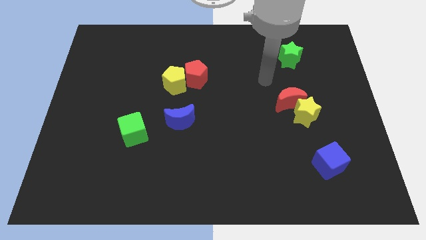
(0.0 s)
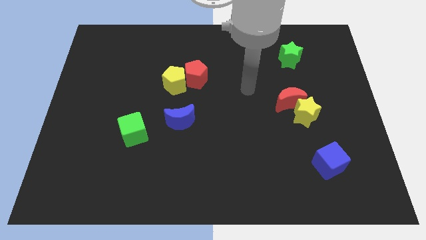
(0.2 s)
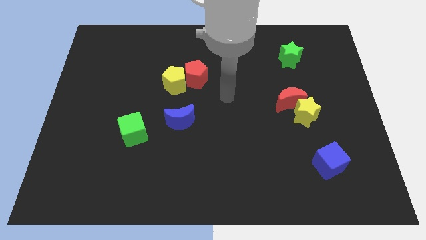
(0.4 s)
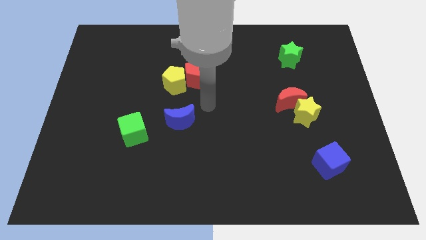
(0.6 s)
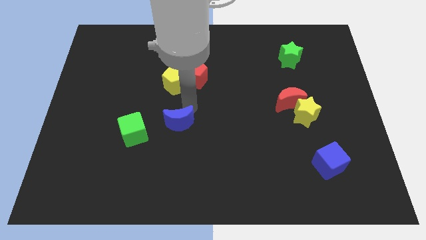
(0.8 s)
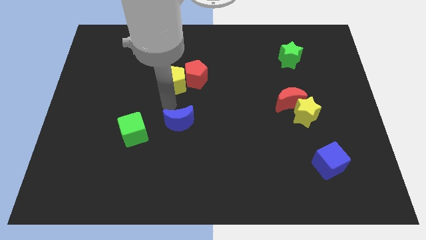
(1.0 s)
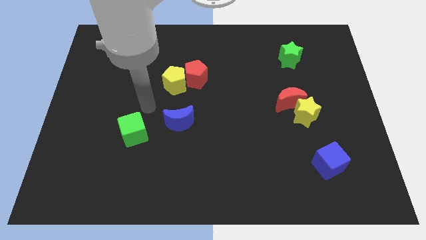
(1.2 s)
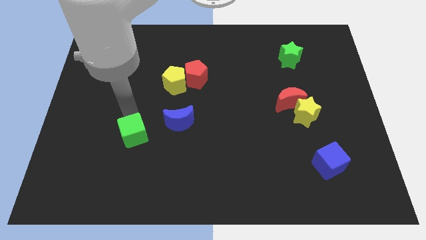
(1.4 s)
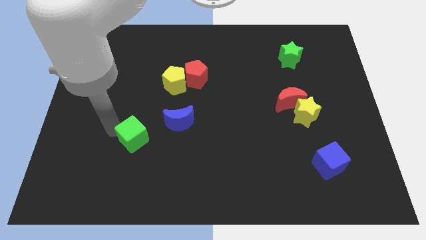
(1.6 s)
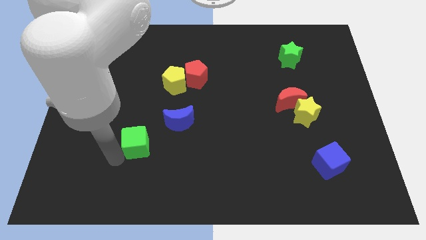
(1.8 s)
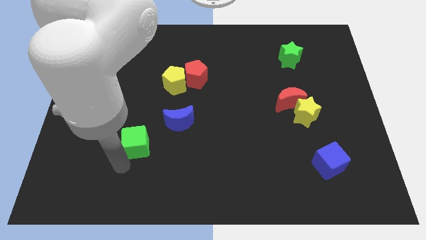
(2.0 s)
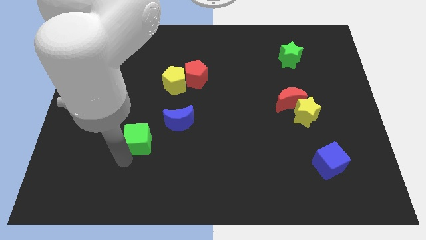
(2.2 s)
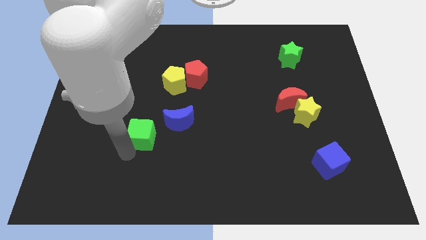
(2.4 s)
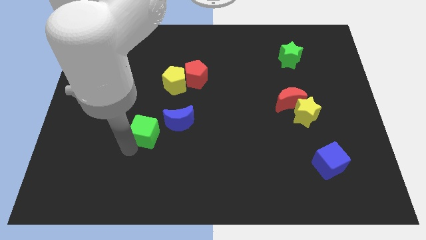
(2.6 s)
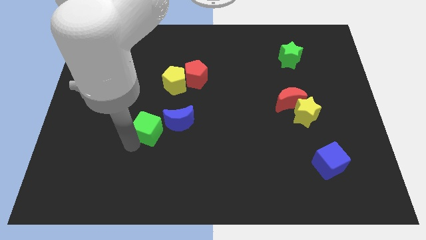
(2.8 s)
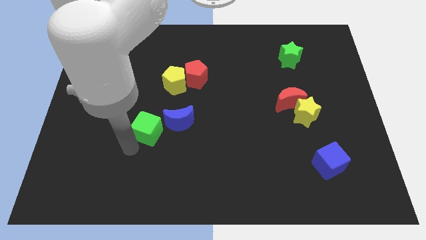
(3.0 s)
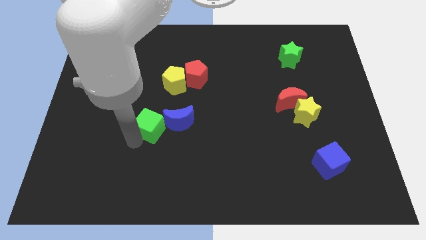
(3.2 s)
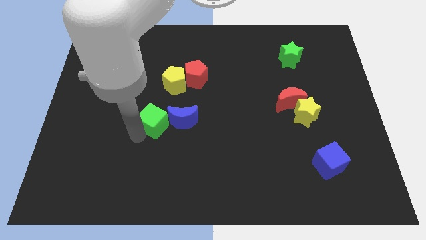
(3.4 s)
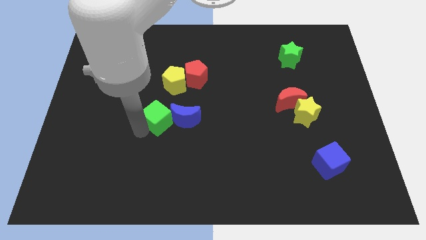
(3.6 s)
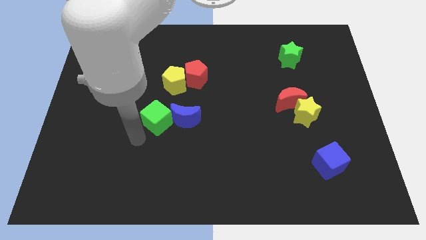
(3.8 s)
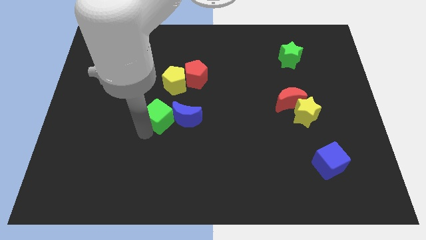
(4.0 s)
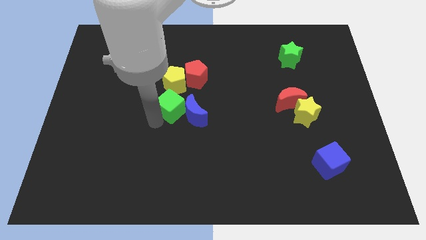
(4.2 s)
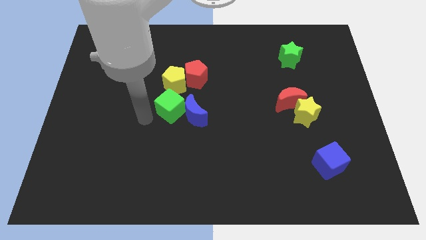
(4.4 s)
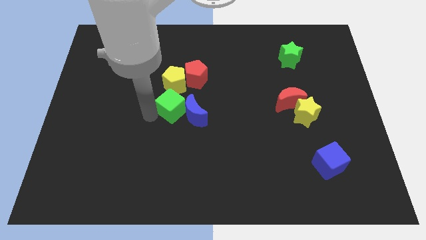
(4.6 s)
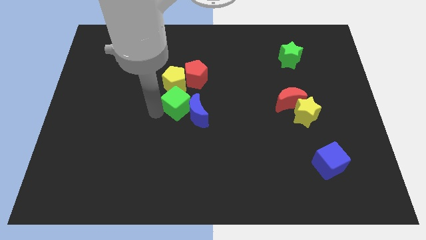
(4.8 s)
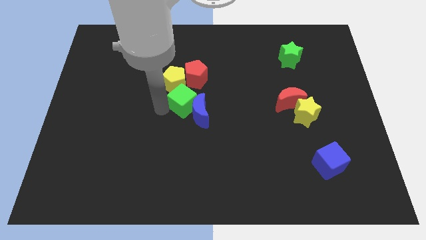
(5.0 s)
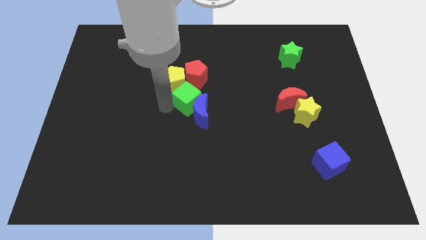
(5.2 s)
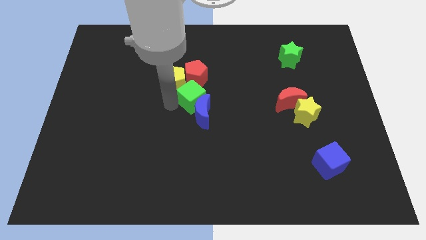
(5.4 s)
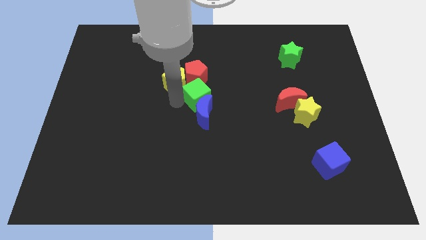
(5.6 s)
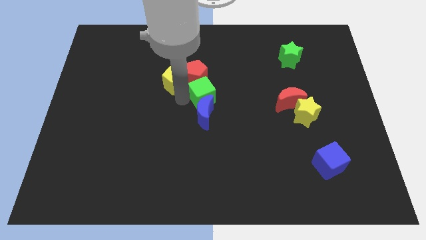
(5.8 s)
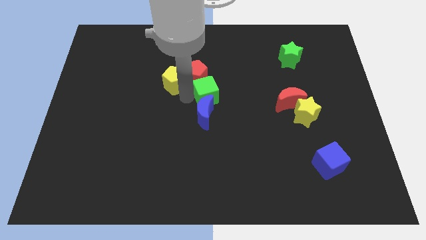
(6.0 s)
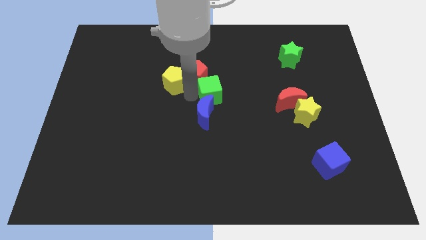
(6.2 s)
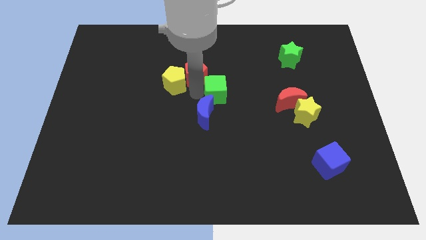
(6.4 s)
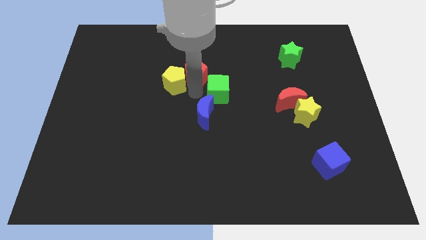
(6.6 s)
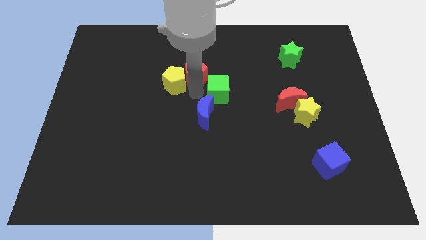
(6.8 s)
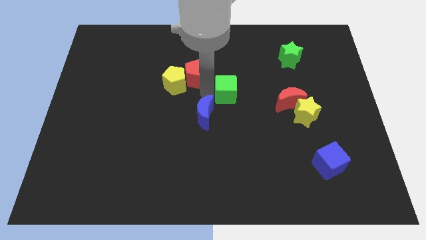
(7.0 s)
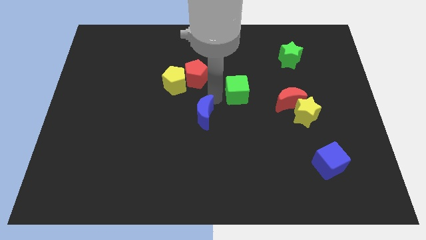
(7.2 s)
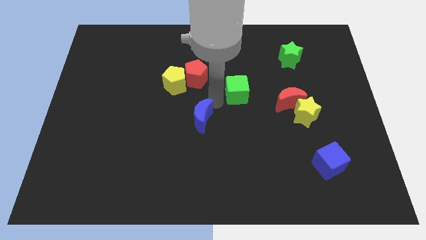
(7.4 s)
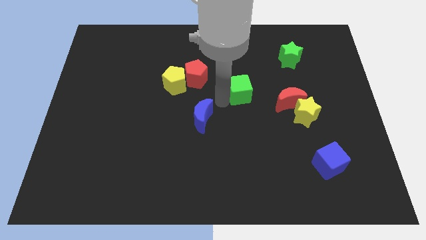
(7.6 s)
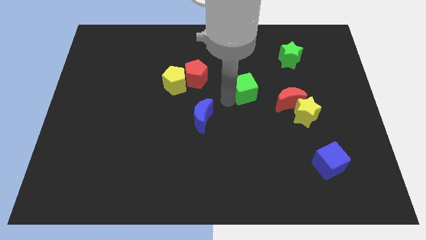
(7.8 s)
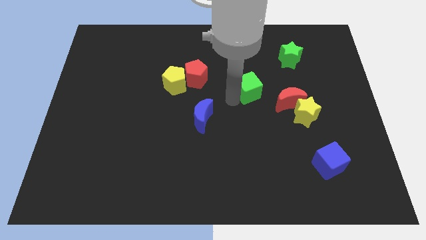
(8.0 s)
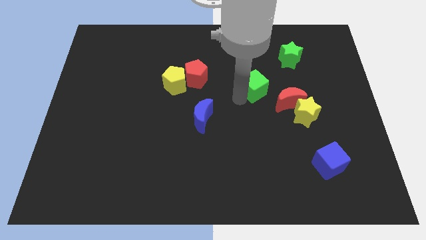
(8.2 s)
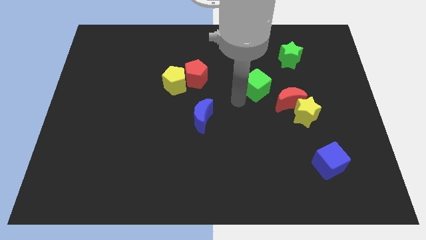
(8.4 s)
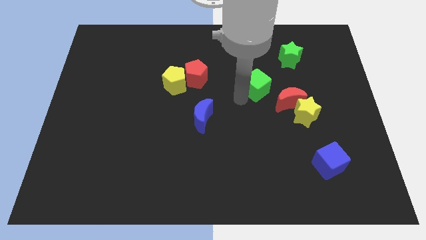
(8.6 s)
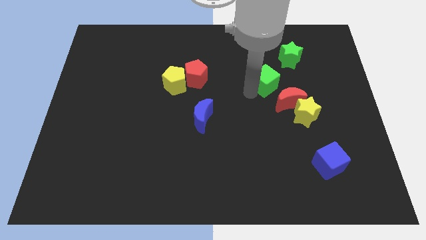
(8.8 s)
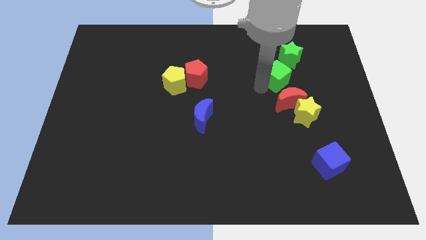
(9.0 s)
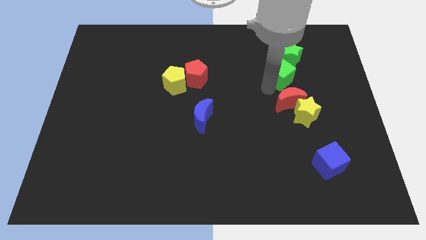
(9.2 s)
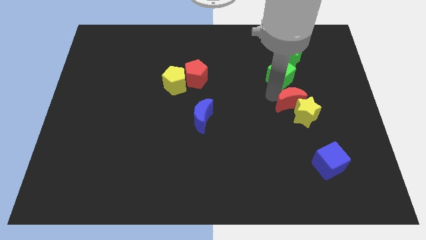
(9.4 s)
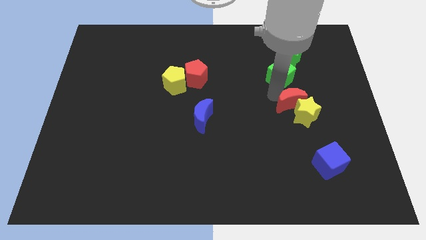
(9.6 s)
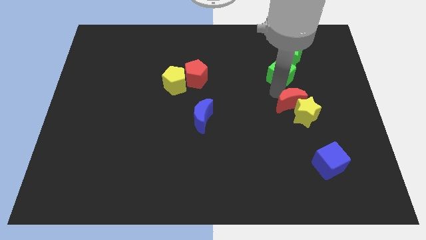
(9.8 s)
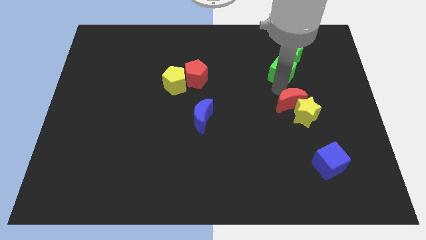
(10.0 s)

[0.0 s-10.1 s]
slide the green cube towards the green star

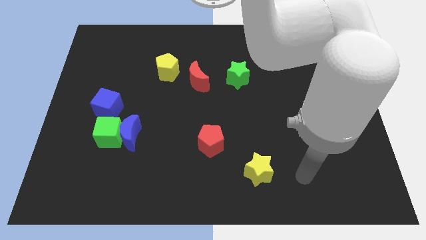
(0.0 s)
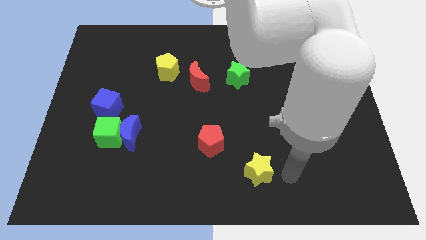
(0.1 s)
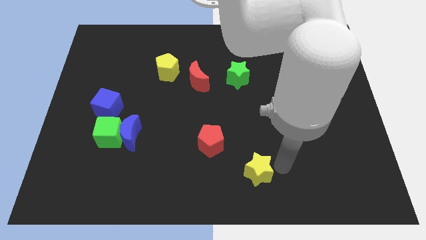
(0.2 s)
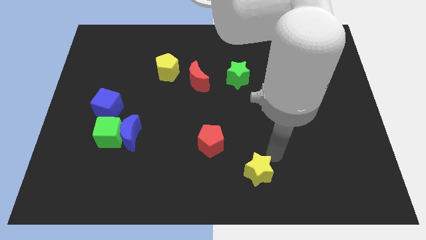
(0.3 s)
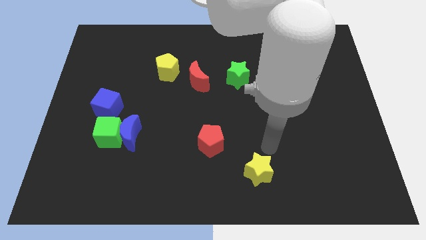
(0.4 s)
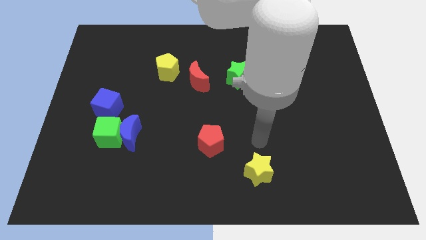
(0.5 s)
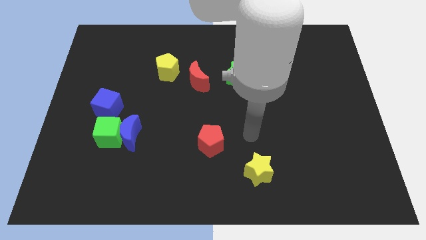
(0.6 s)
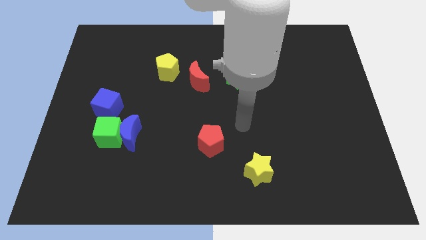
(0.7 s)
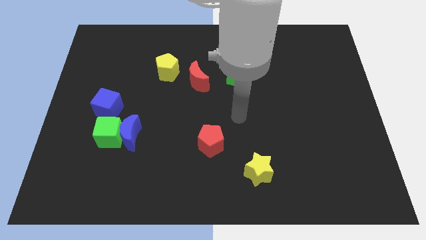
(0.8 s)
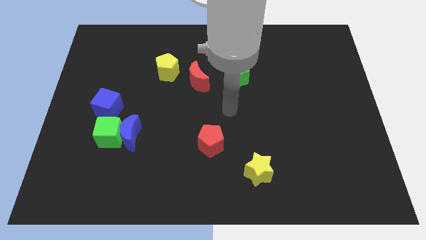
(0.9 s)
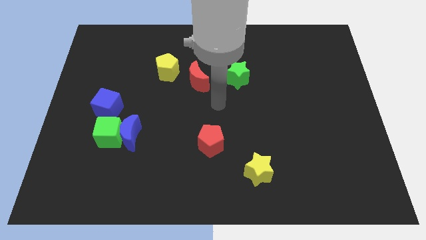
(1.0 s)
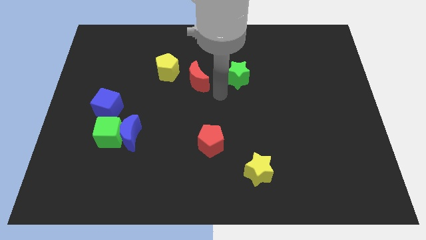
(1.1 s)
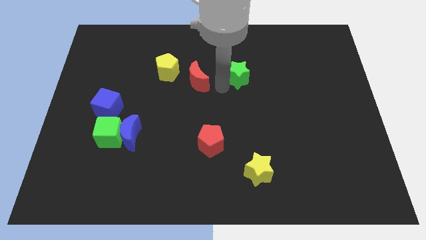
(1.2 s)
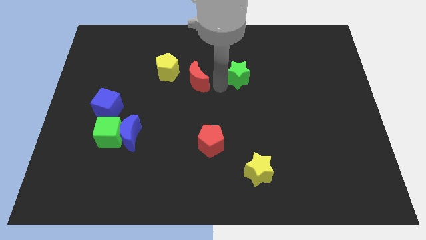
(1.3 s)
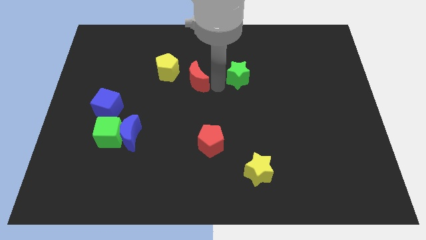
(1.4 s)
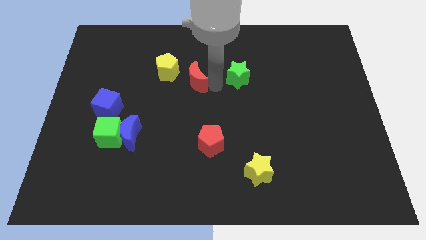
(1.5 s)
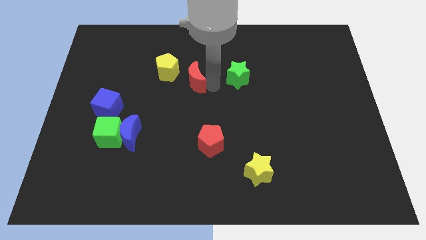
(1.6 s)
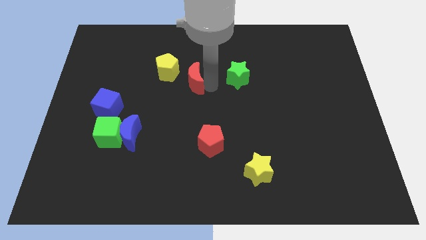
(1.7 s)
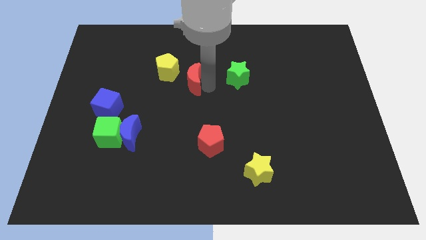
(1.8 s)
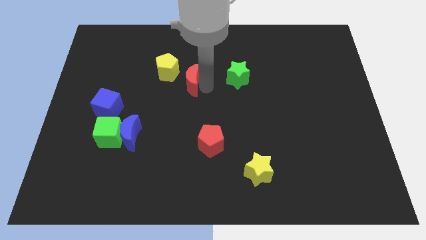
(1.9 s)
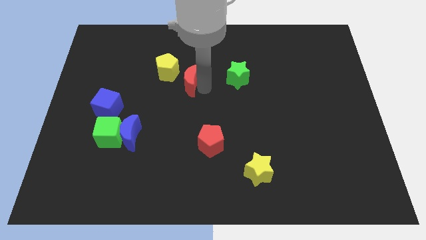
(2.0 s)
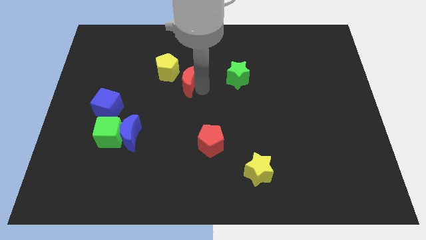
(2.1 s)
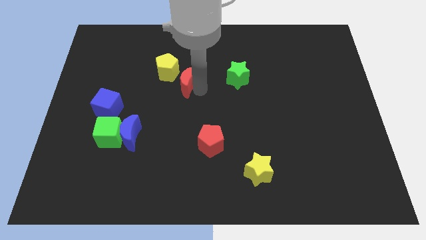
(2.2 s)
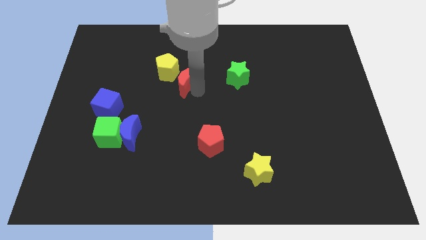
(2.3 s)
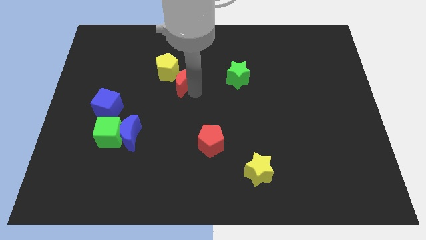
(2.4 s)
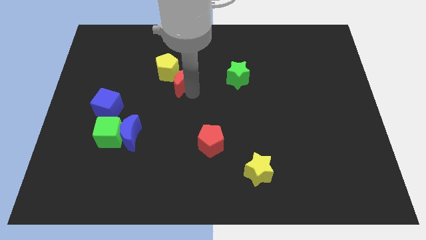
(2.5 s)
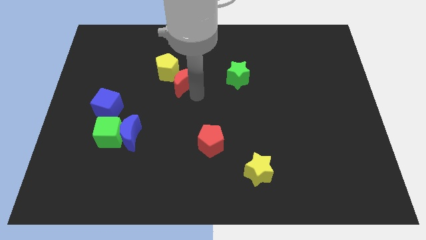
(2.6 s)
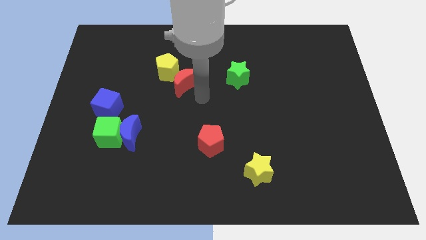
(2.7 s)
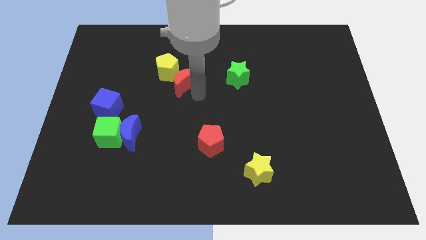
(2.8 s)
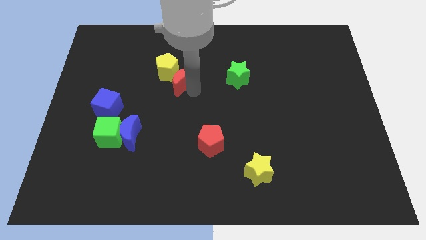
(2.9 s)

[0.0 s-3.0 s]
put the red moon close to the yellow pentagon
